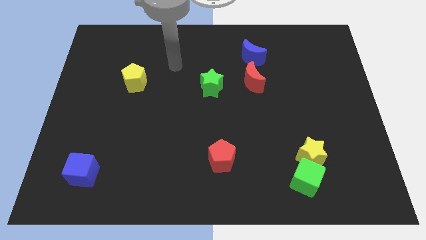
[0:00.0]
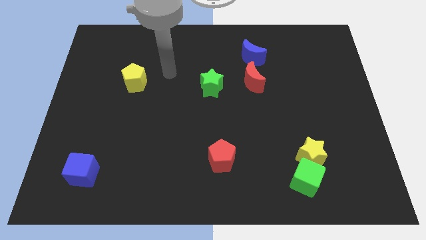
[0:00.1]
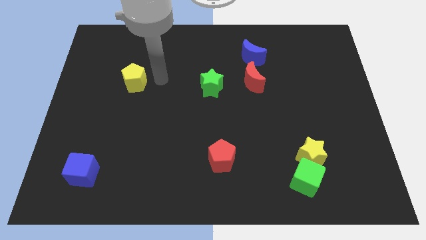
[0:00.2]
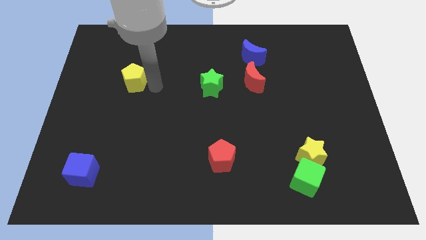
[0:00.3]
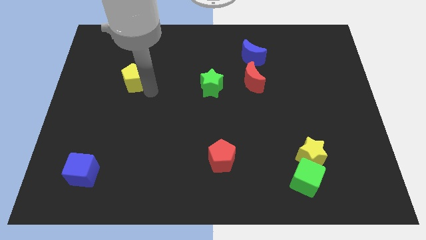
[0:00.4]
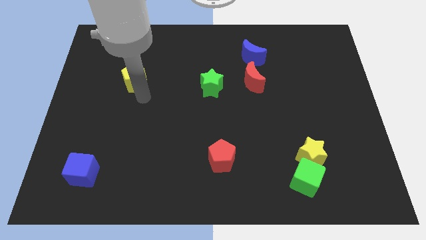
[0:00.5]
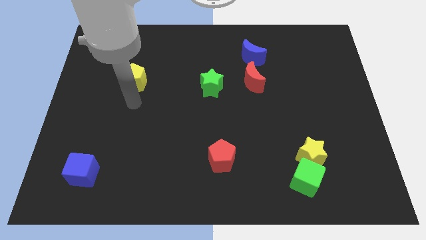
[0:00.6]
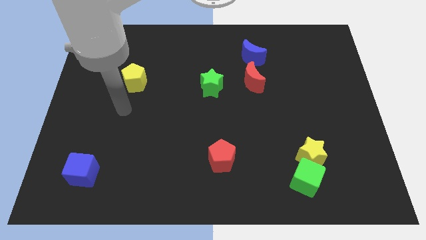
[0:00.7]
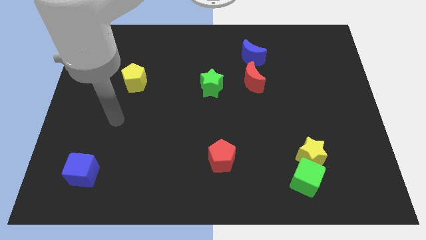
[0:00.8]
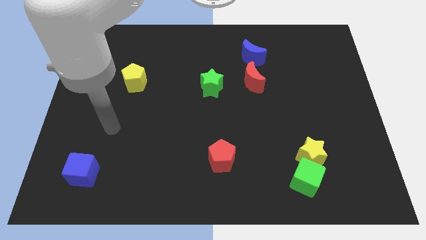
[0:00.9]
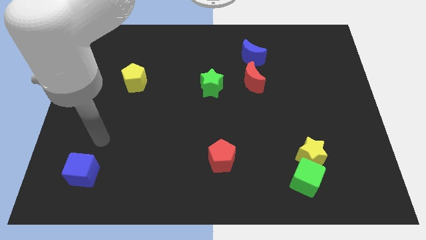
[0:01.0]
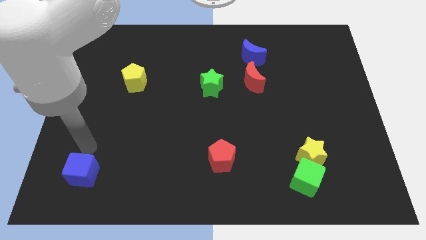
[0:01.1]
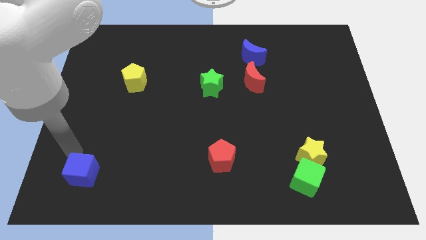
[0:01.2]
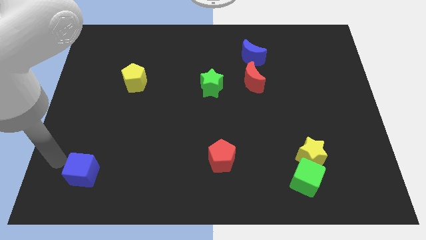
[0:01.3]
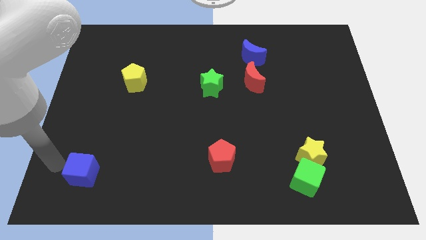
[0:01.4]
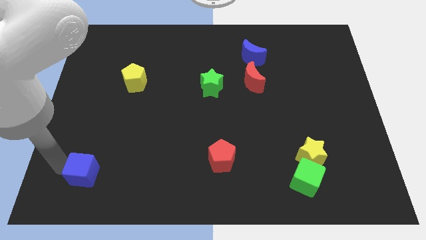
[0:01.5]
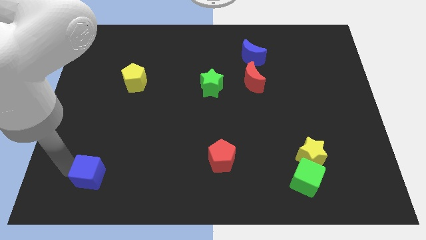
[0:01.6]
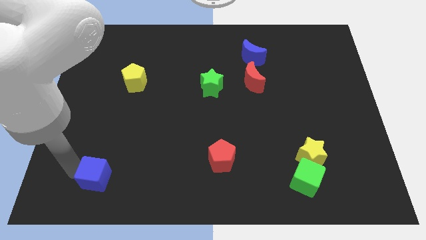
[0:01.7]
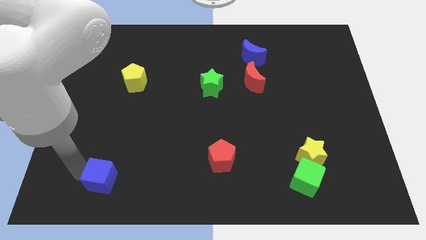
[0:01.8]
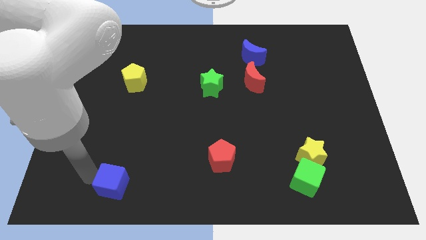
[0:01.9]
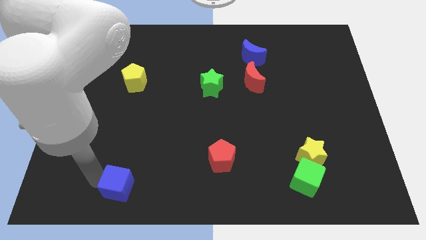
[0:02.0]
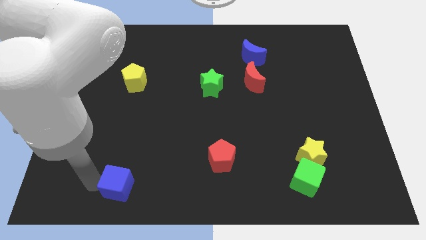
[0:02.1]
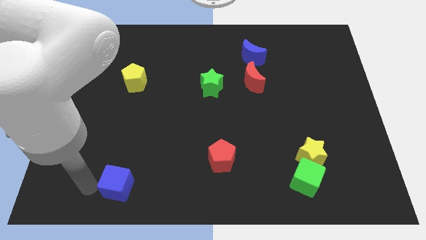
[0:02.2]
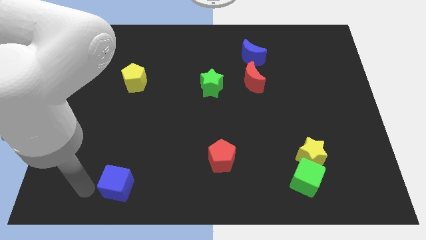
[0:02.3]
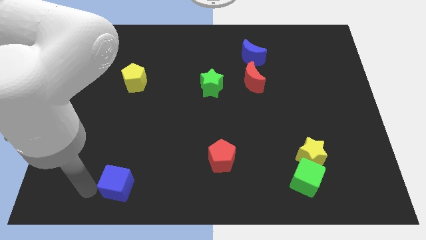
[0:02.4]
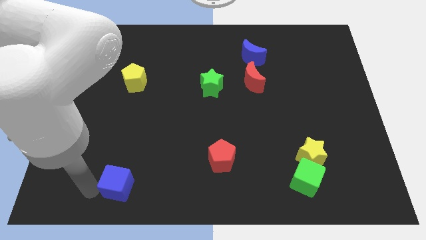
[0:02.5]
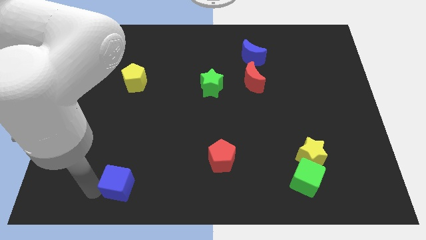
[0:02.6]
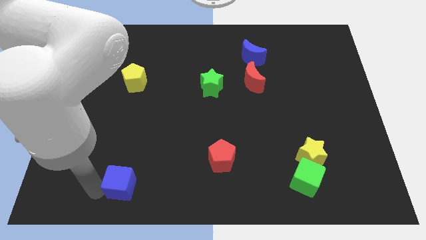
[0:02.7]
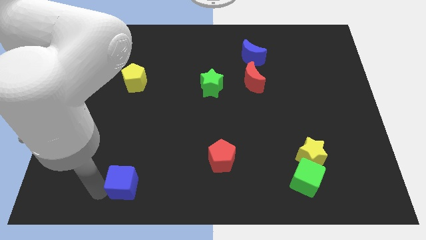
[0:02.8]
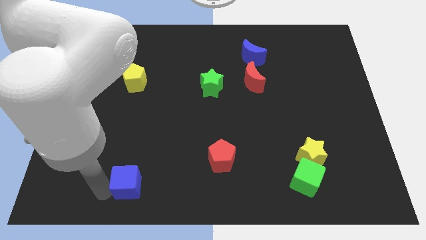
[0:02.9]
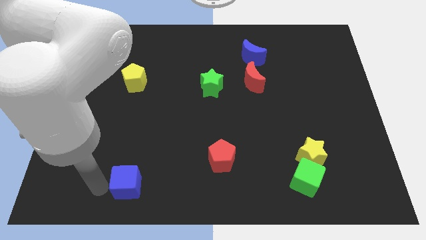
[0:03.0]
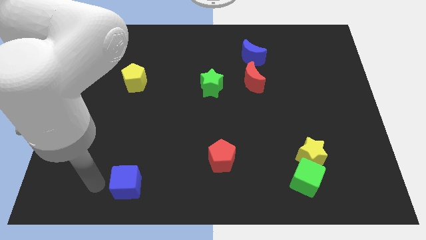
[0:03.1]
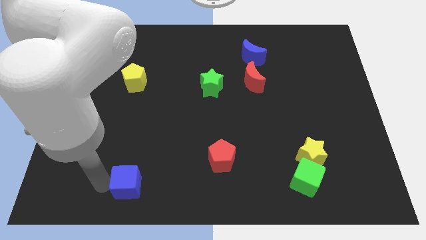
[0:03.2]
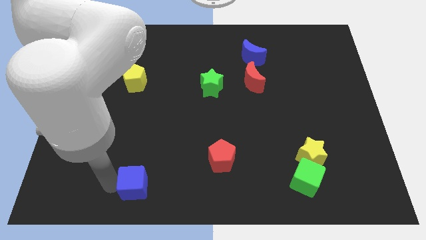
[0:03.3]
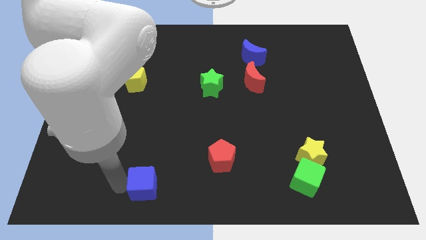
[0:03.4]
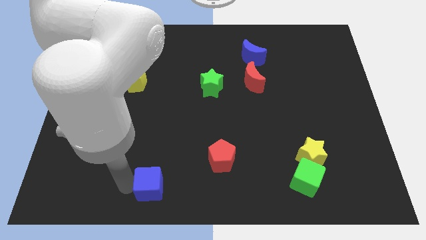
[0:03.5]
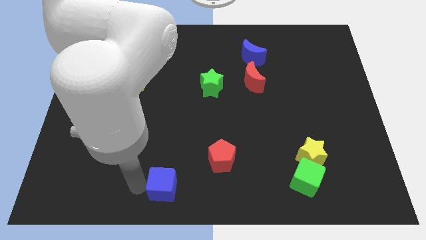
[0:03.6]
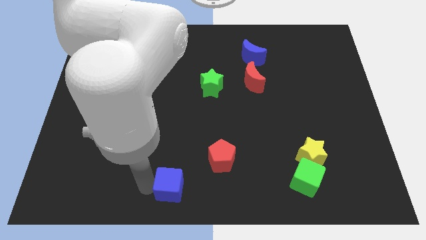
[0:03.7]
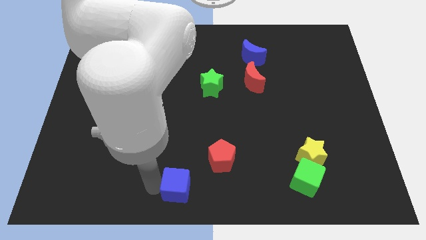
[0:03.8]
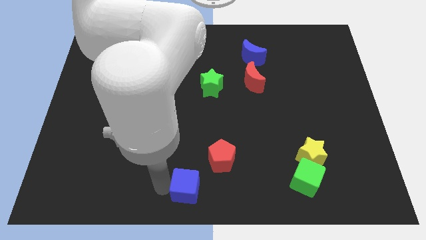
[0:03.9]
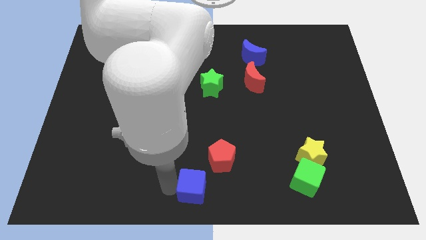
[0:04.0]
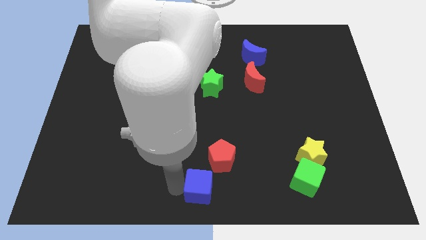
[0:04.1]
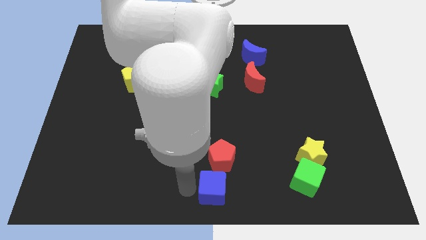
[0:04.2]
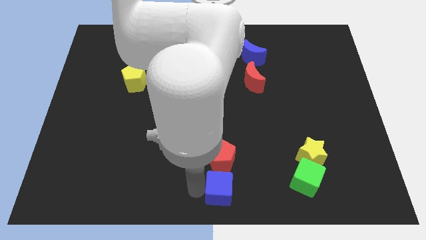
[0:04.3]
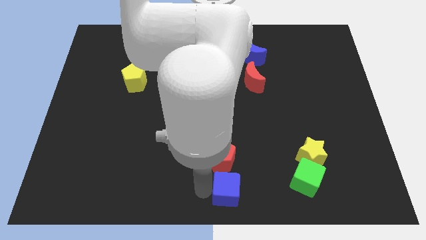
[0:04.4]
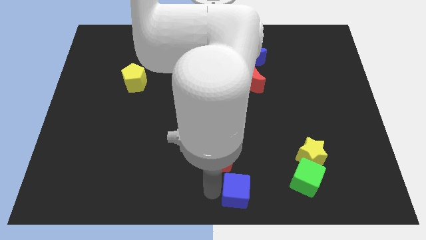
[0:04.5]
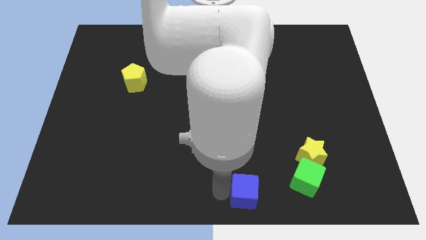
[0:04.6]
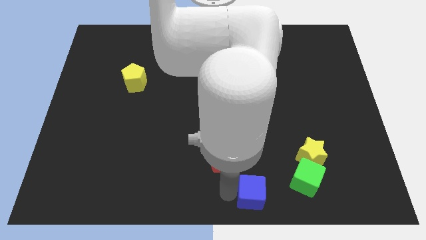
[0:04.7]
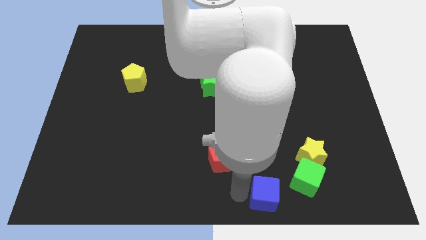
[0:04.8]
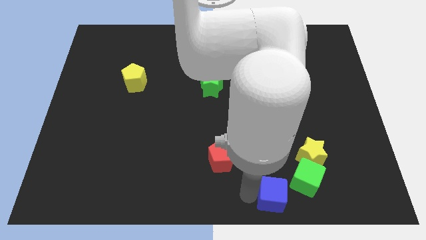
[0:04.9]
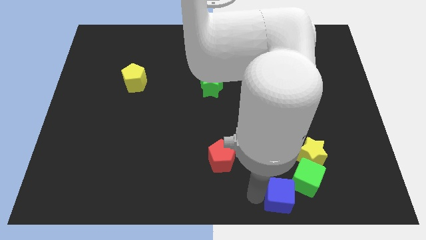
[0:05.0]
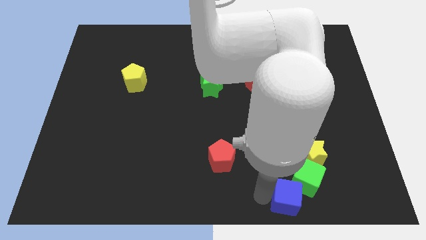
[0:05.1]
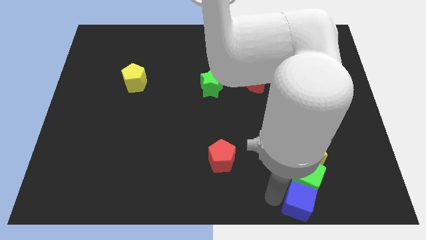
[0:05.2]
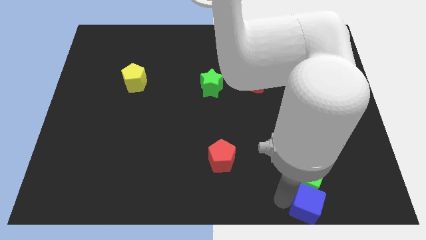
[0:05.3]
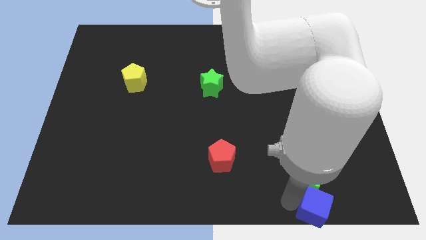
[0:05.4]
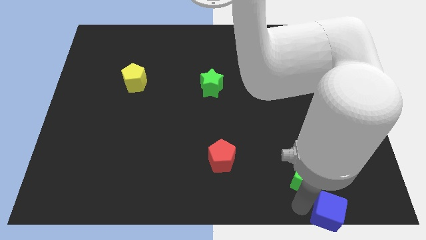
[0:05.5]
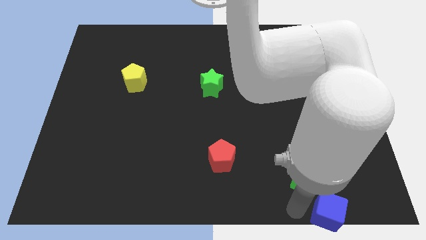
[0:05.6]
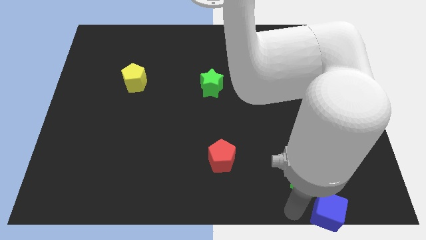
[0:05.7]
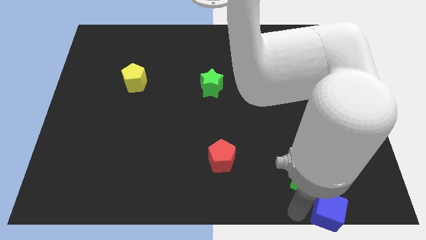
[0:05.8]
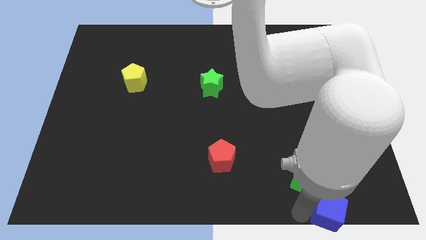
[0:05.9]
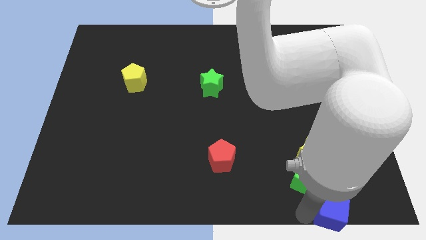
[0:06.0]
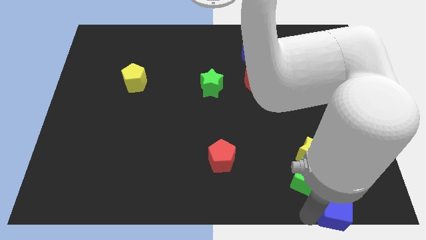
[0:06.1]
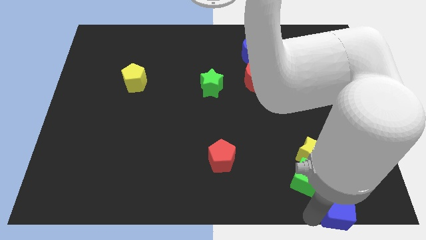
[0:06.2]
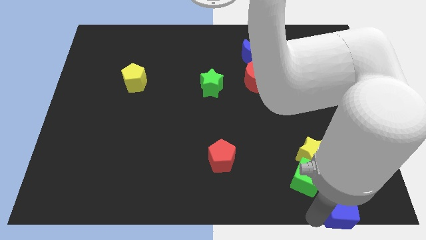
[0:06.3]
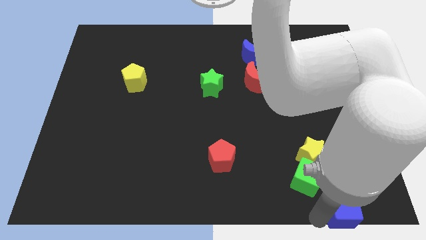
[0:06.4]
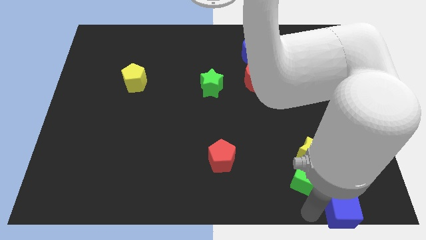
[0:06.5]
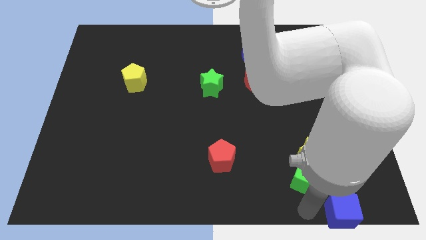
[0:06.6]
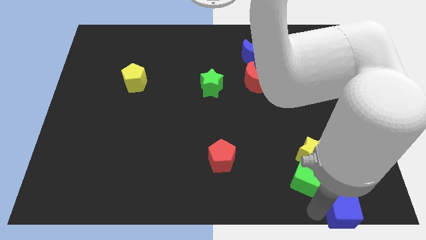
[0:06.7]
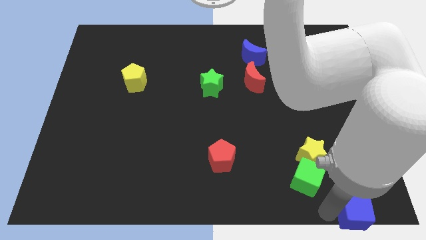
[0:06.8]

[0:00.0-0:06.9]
put the blue cube to the bottom right of the board
